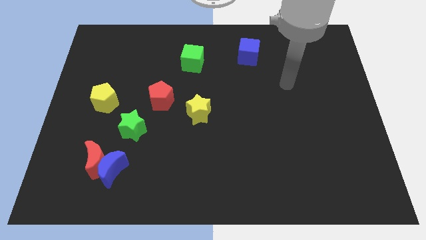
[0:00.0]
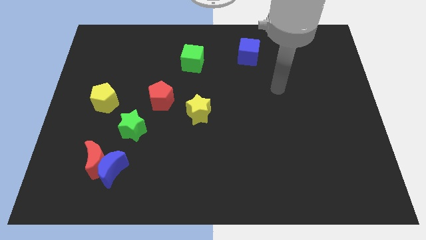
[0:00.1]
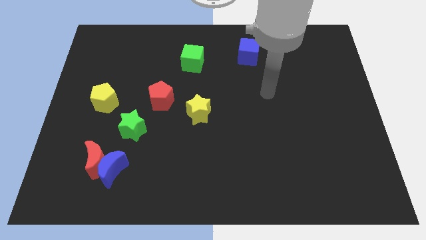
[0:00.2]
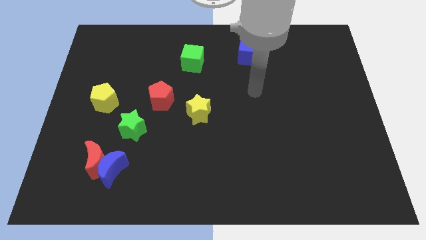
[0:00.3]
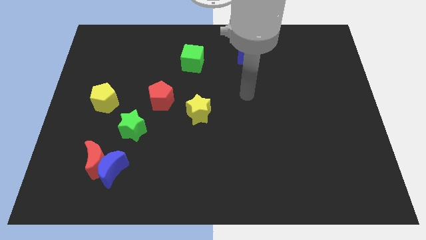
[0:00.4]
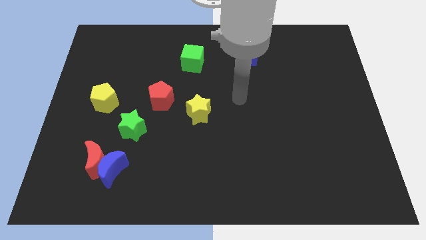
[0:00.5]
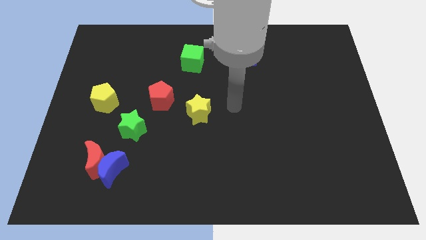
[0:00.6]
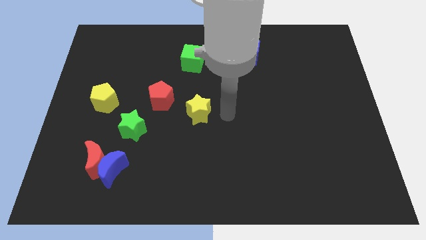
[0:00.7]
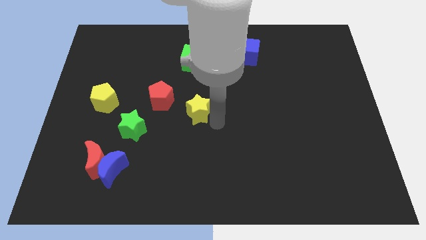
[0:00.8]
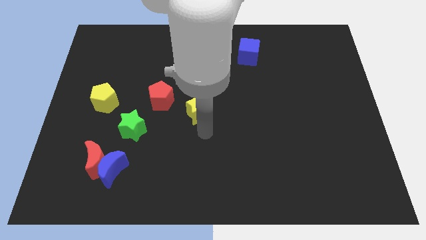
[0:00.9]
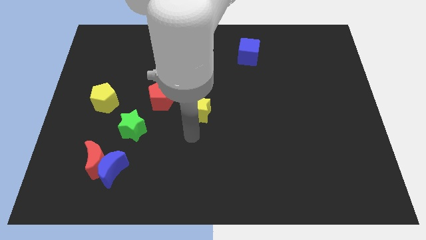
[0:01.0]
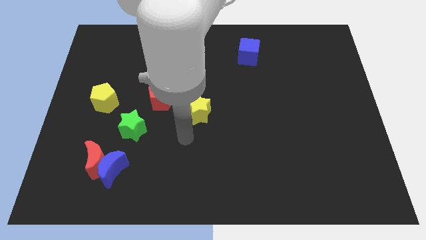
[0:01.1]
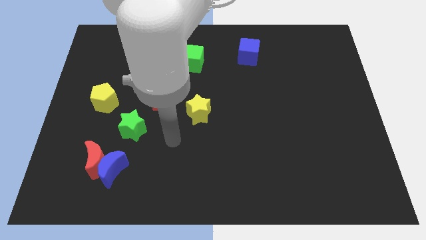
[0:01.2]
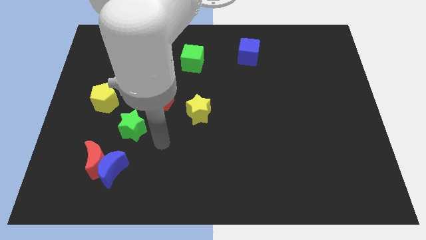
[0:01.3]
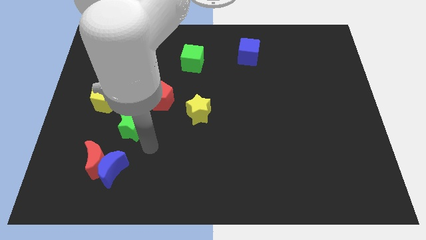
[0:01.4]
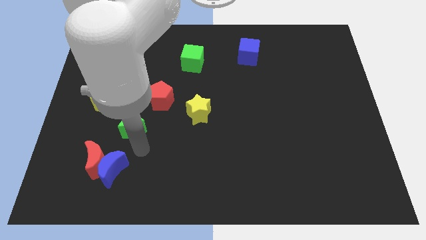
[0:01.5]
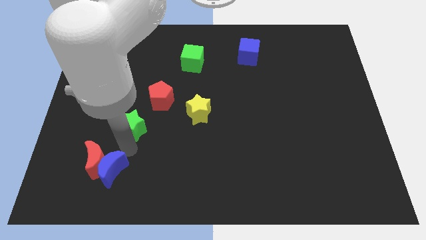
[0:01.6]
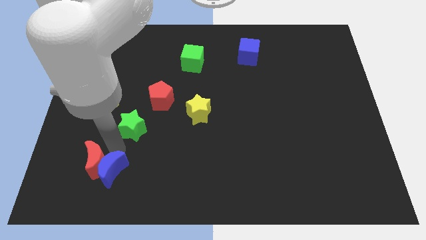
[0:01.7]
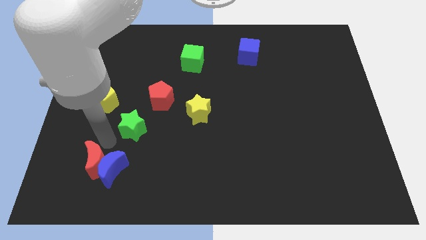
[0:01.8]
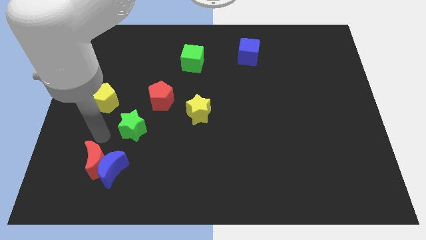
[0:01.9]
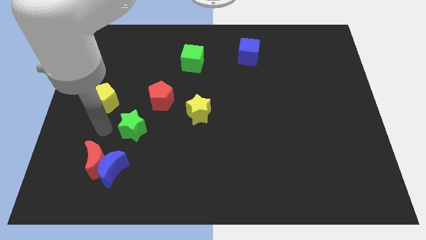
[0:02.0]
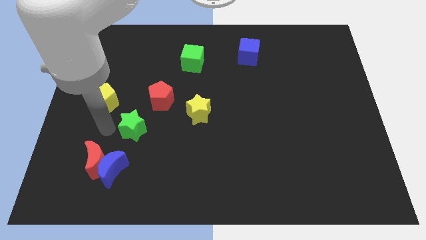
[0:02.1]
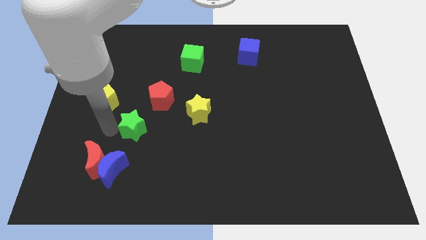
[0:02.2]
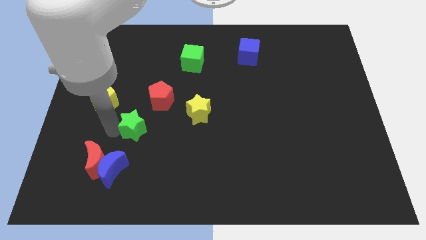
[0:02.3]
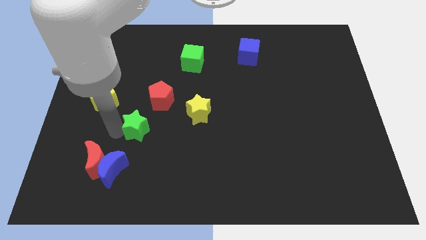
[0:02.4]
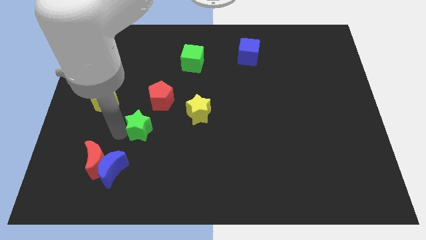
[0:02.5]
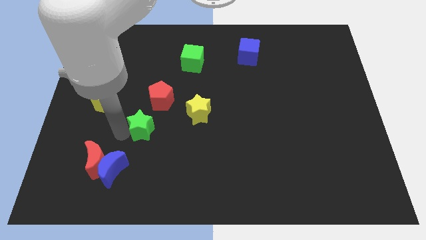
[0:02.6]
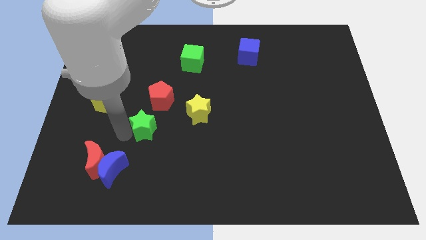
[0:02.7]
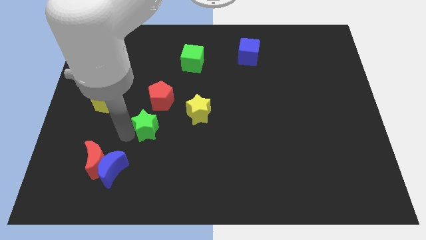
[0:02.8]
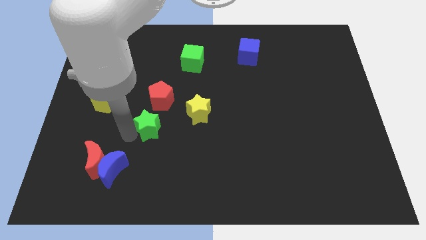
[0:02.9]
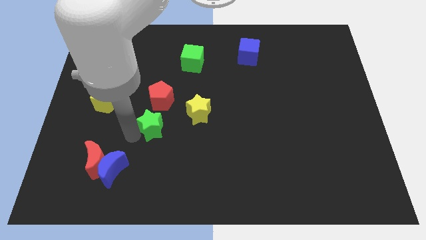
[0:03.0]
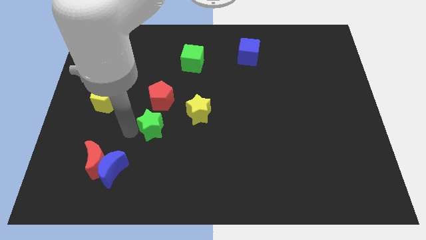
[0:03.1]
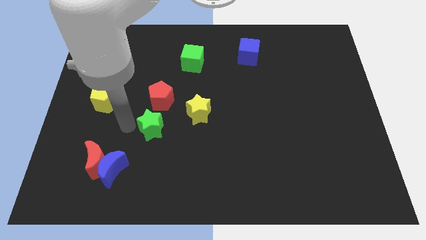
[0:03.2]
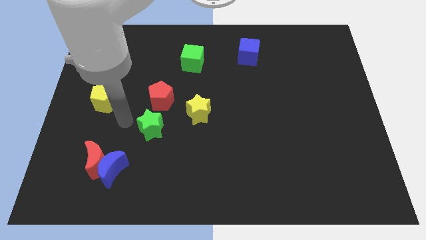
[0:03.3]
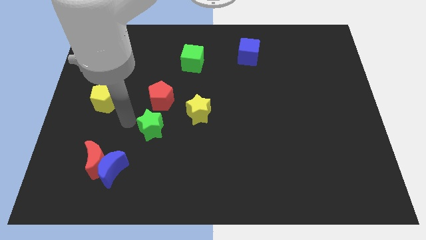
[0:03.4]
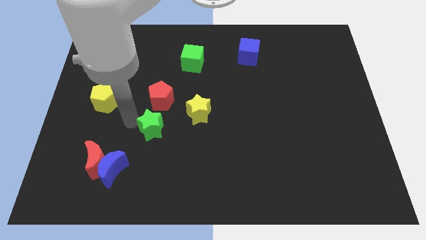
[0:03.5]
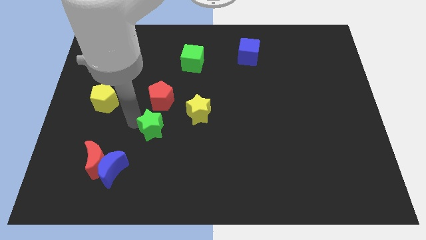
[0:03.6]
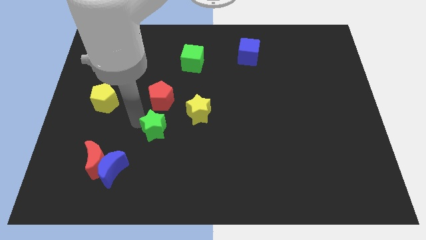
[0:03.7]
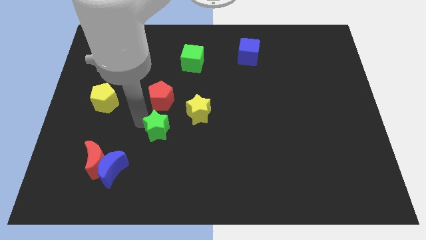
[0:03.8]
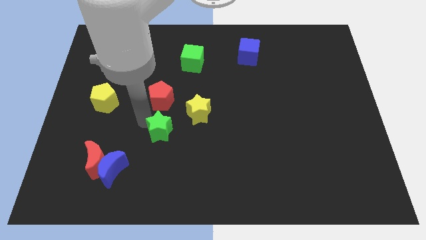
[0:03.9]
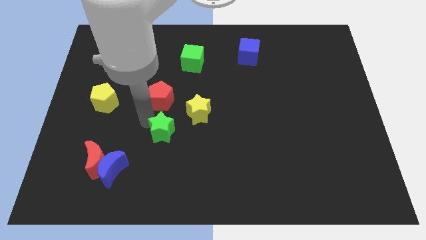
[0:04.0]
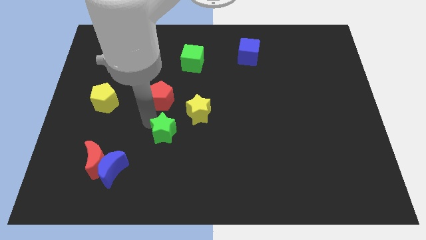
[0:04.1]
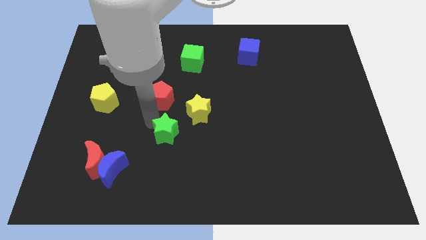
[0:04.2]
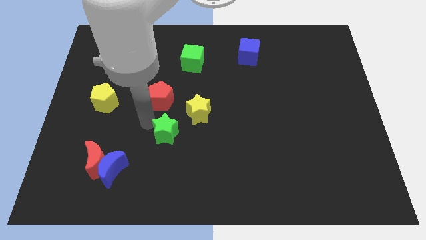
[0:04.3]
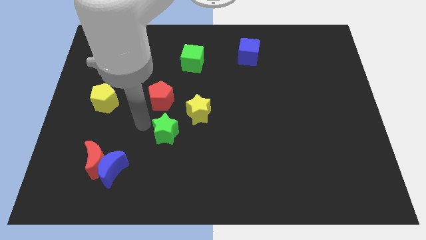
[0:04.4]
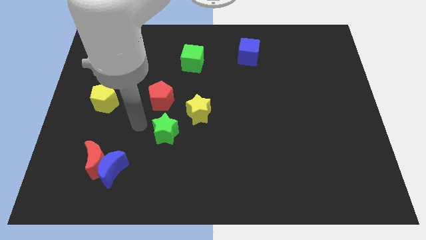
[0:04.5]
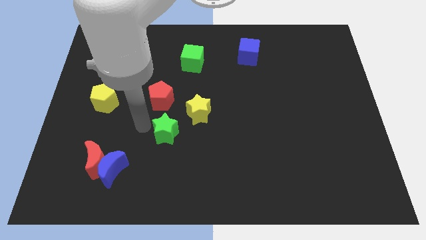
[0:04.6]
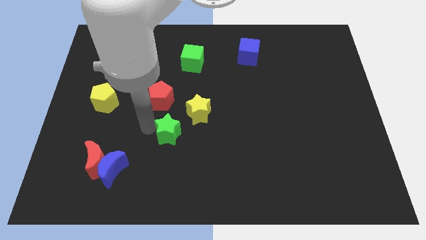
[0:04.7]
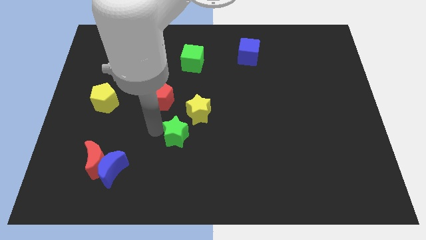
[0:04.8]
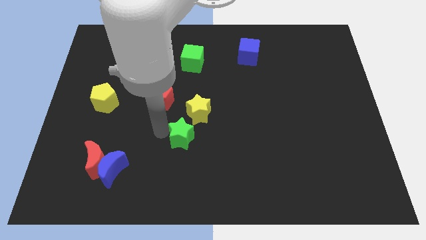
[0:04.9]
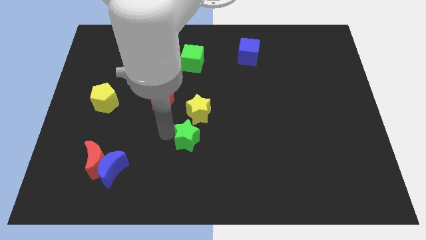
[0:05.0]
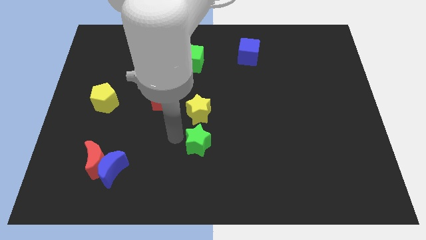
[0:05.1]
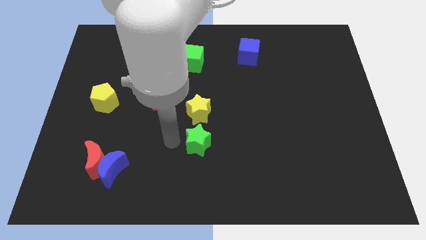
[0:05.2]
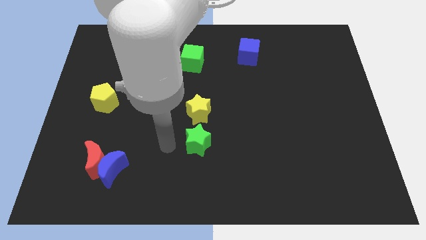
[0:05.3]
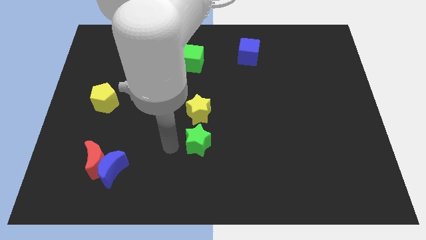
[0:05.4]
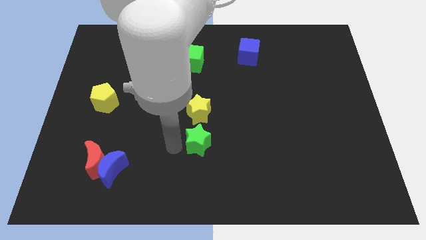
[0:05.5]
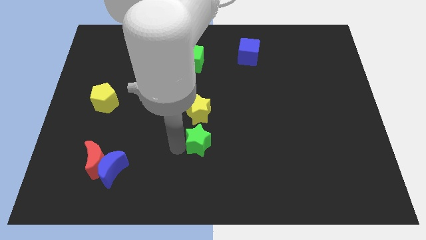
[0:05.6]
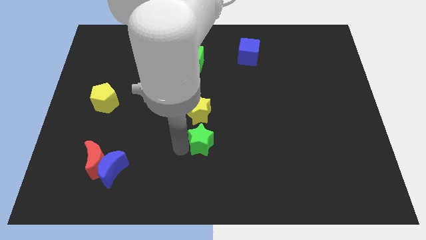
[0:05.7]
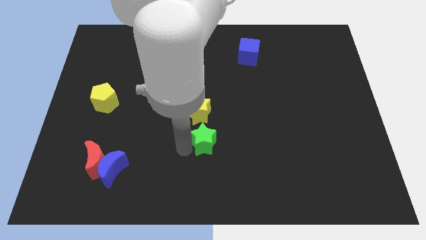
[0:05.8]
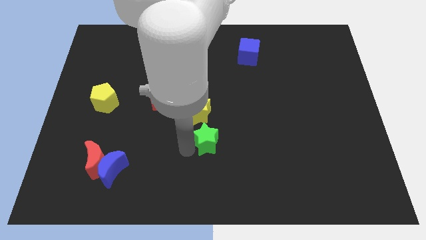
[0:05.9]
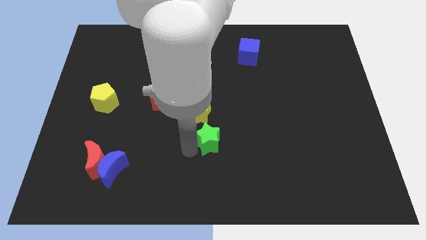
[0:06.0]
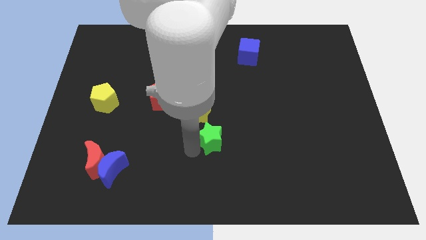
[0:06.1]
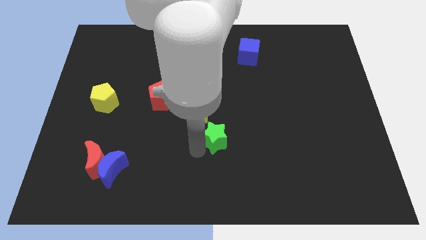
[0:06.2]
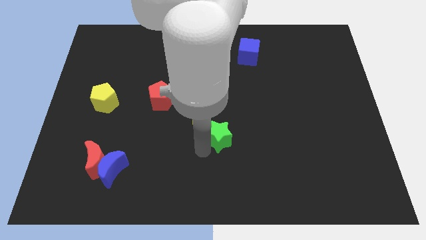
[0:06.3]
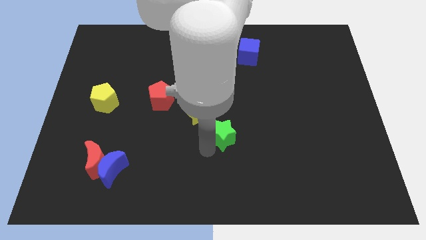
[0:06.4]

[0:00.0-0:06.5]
move the green star right

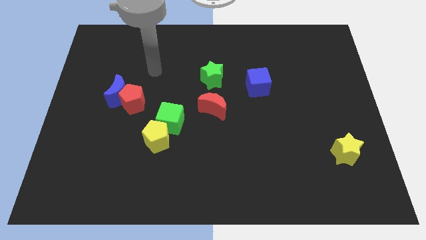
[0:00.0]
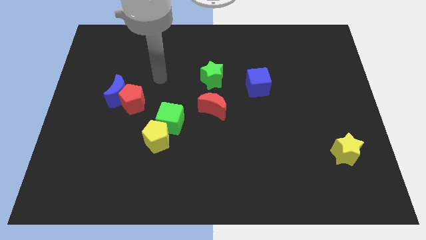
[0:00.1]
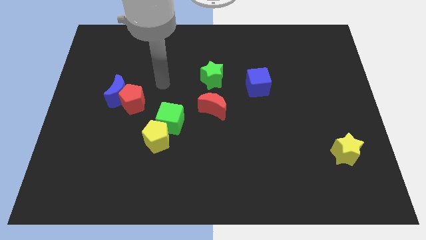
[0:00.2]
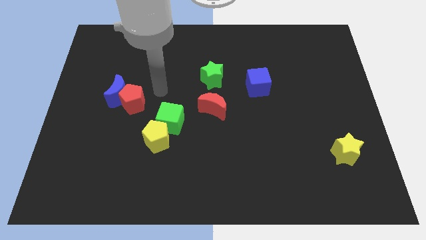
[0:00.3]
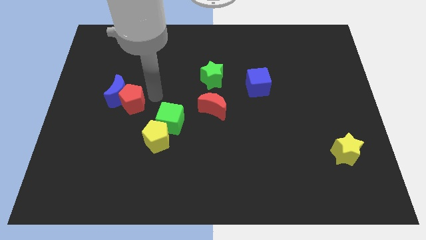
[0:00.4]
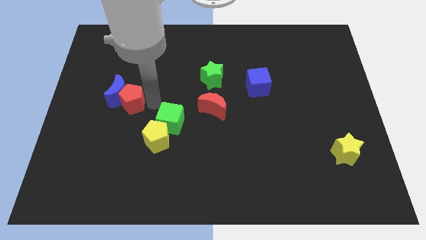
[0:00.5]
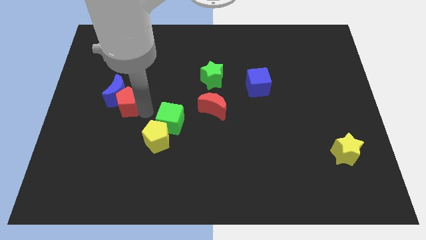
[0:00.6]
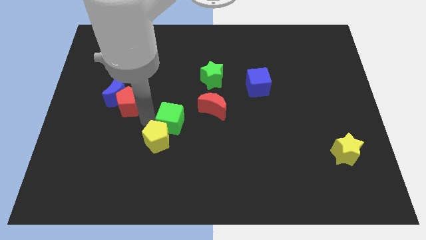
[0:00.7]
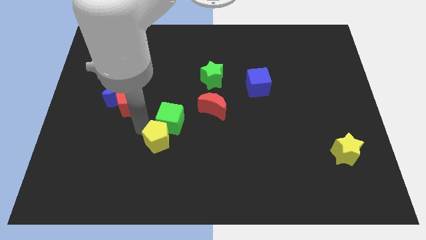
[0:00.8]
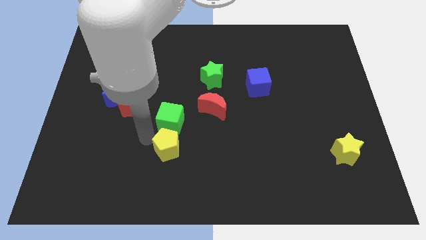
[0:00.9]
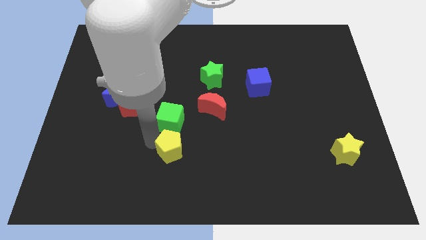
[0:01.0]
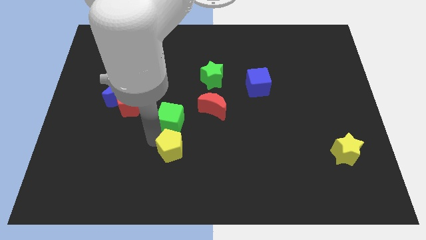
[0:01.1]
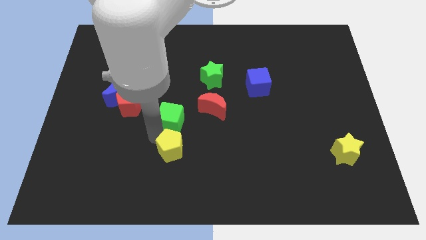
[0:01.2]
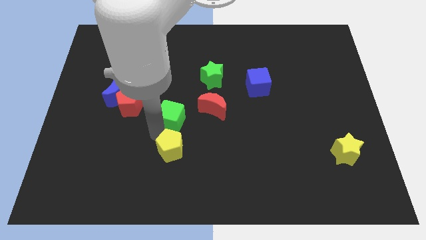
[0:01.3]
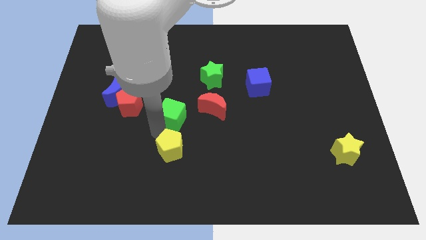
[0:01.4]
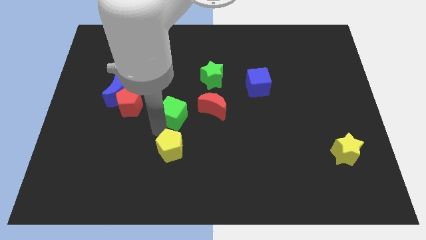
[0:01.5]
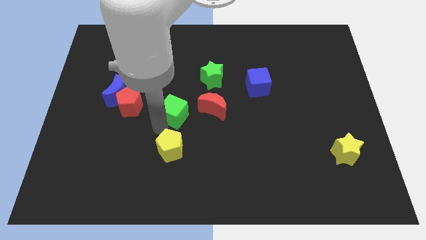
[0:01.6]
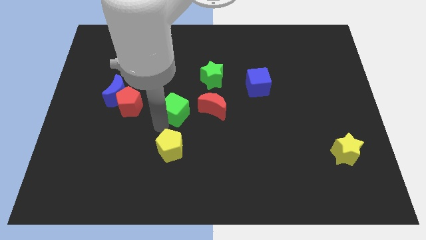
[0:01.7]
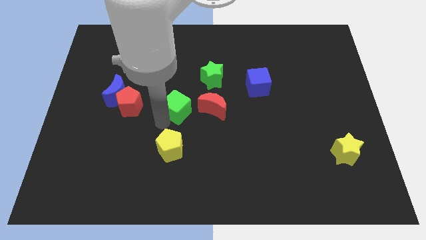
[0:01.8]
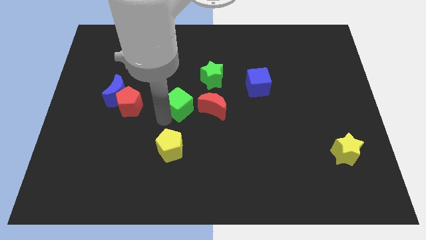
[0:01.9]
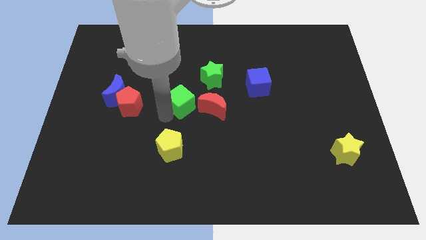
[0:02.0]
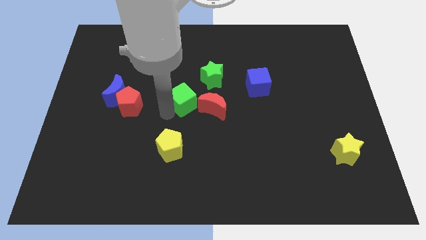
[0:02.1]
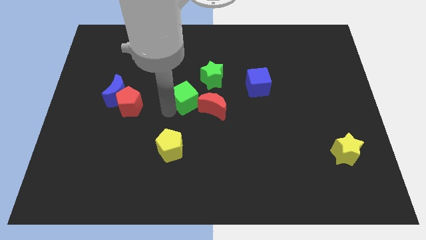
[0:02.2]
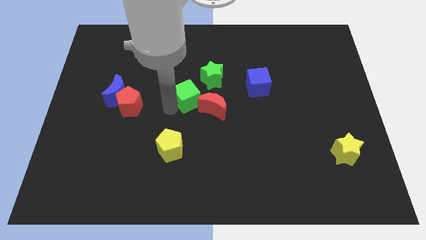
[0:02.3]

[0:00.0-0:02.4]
slightly slide the green cube diagonally upwards and to the right
